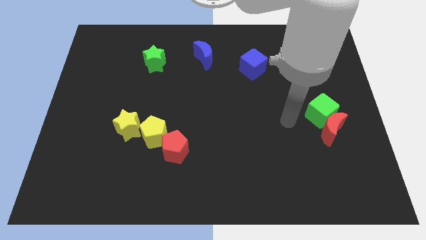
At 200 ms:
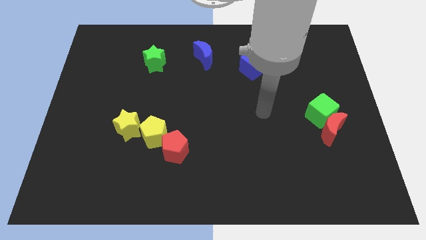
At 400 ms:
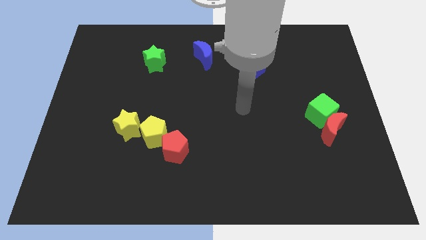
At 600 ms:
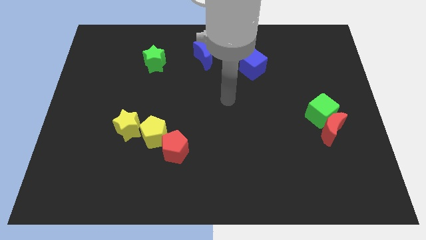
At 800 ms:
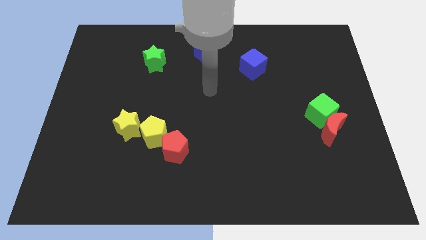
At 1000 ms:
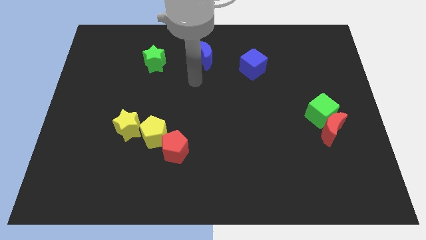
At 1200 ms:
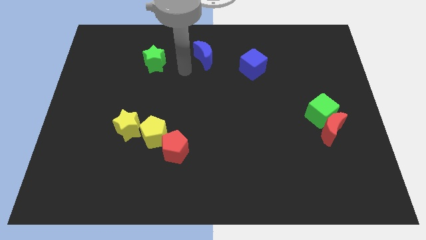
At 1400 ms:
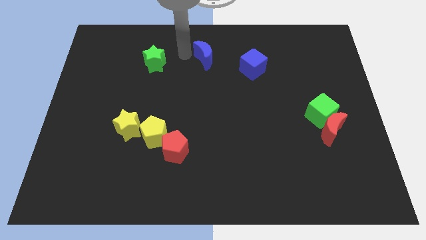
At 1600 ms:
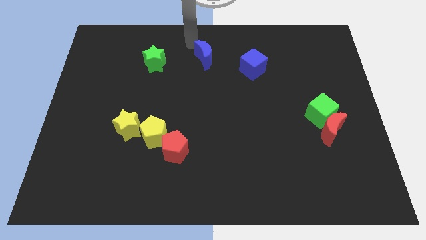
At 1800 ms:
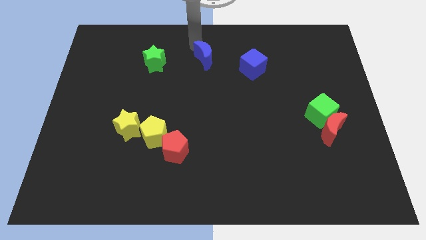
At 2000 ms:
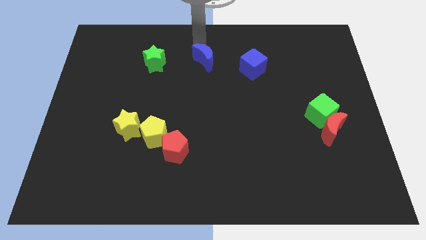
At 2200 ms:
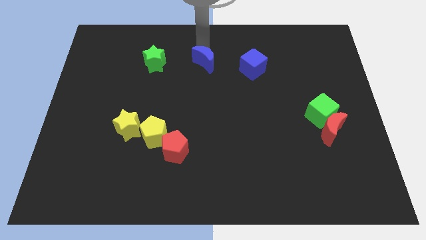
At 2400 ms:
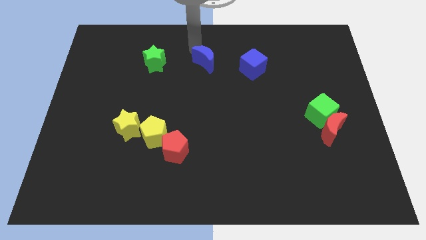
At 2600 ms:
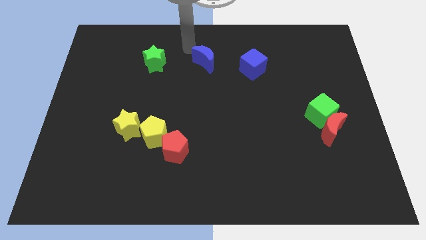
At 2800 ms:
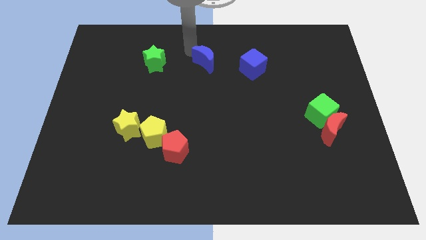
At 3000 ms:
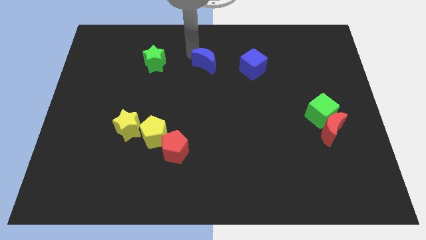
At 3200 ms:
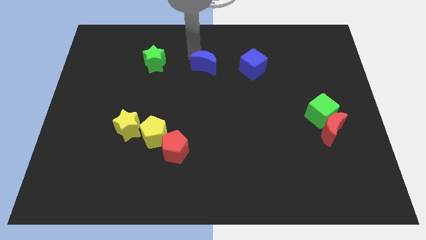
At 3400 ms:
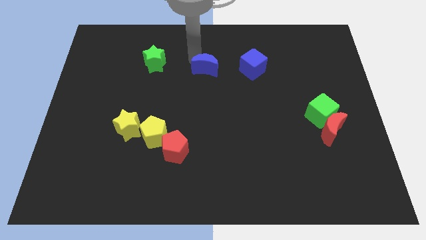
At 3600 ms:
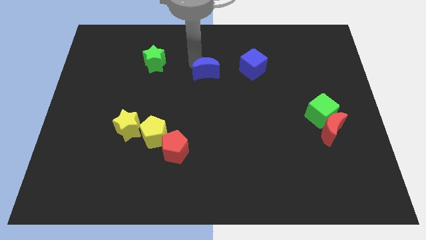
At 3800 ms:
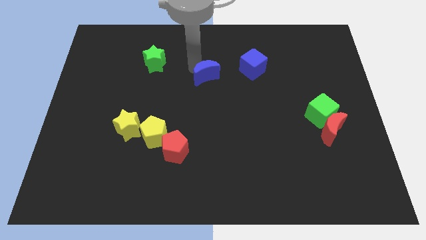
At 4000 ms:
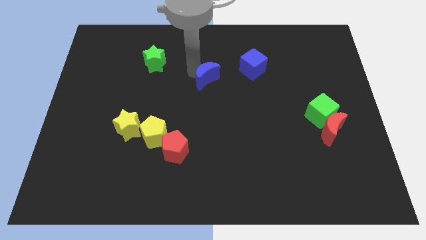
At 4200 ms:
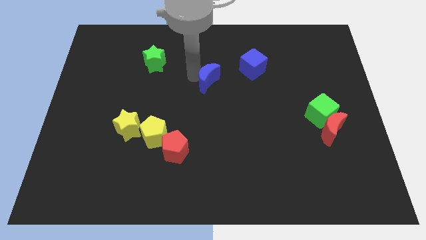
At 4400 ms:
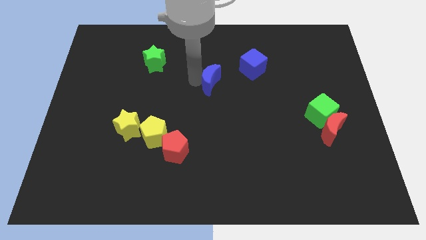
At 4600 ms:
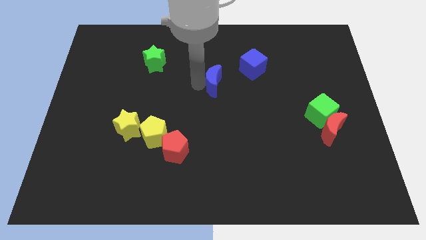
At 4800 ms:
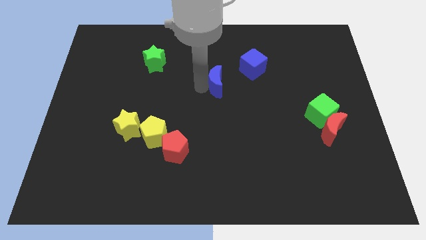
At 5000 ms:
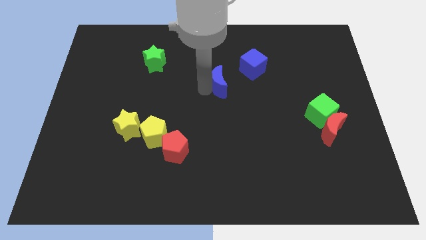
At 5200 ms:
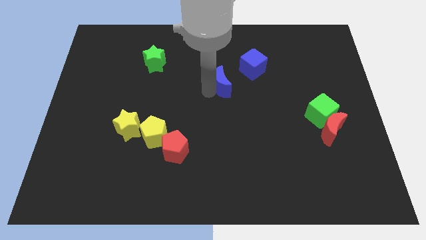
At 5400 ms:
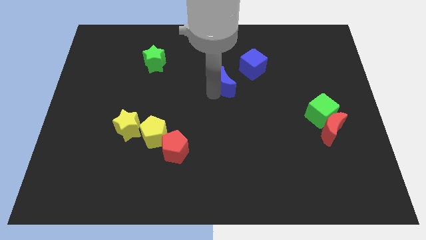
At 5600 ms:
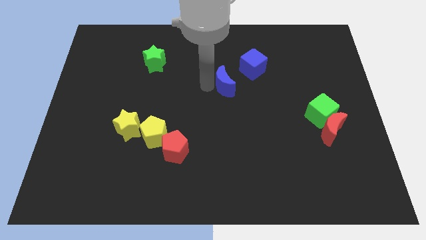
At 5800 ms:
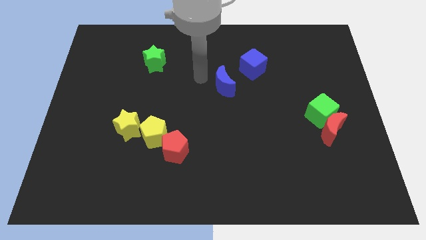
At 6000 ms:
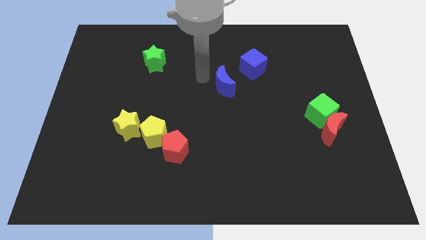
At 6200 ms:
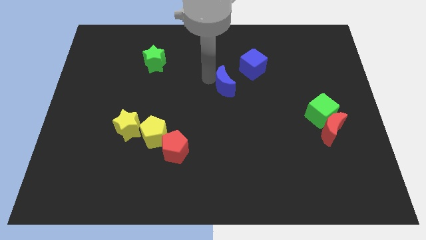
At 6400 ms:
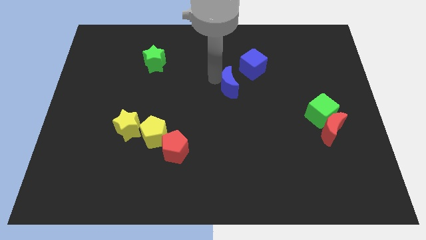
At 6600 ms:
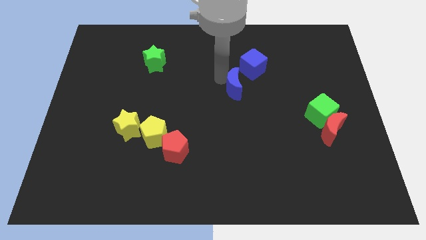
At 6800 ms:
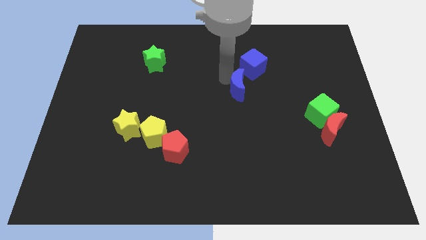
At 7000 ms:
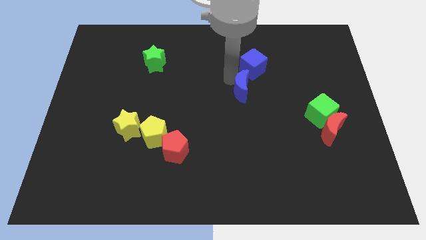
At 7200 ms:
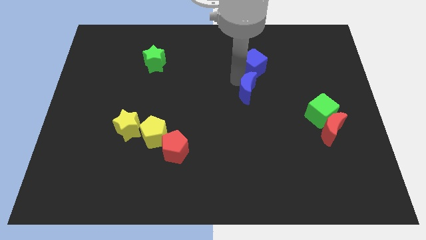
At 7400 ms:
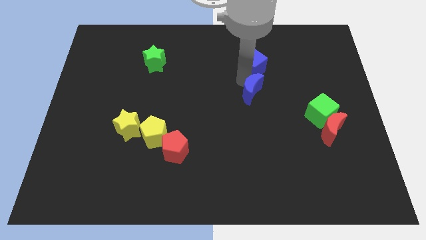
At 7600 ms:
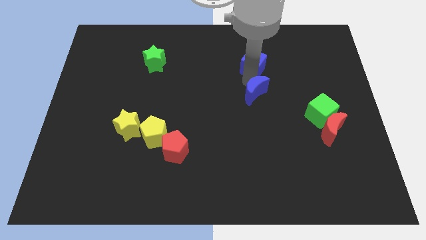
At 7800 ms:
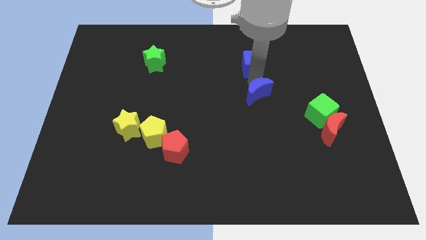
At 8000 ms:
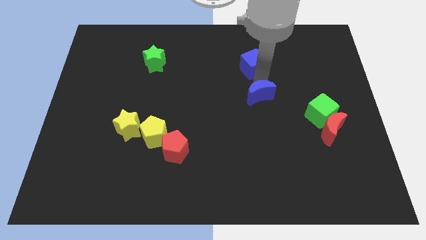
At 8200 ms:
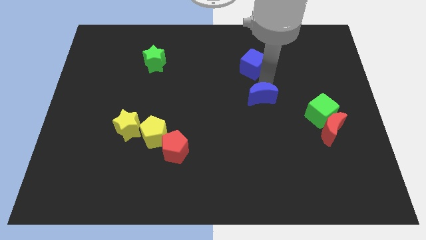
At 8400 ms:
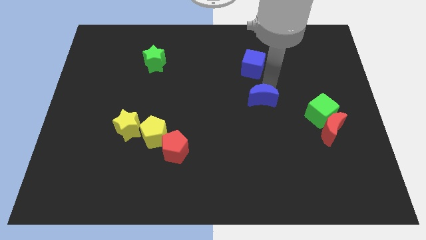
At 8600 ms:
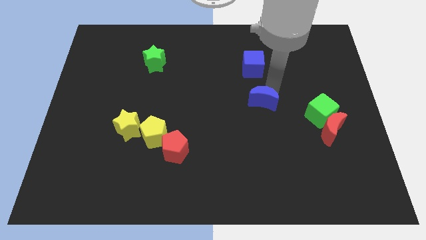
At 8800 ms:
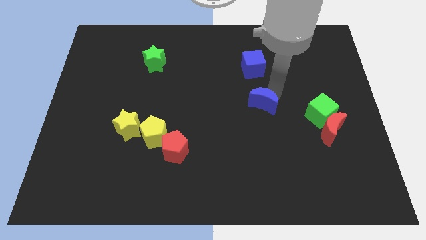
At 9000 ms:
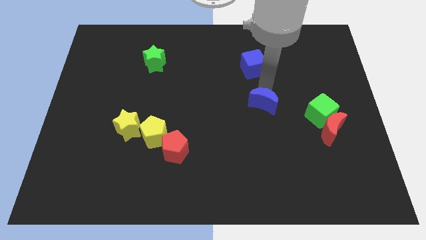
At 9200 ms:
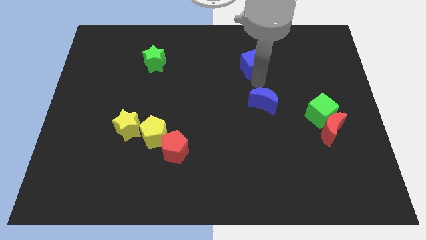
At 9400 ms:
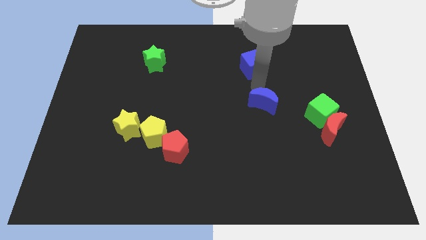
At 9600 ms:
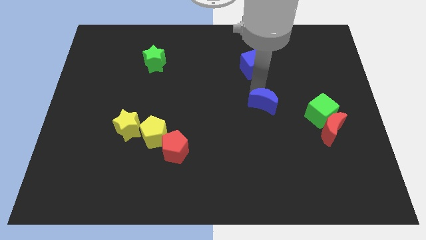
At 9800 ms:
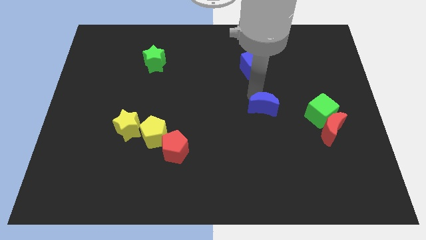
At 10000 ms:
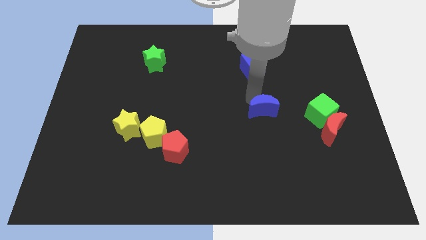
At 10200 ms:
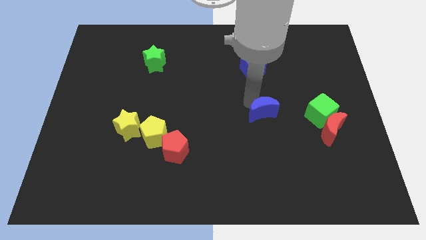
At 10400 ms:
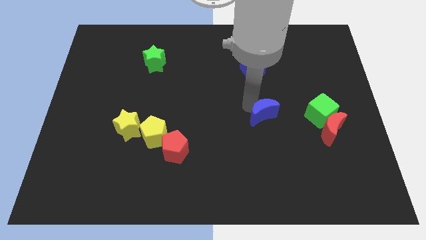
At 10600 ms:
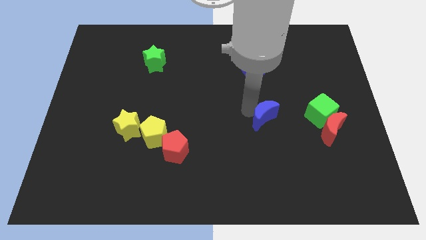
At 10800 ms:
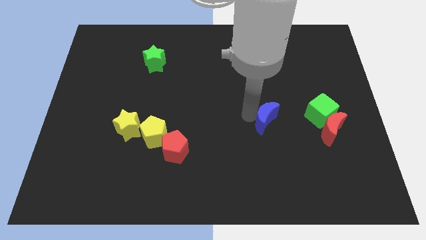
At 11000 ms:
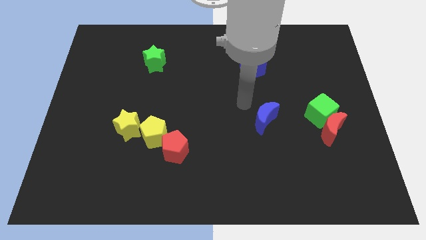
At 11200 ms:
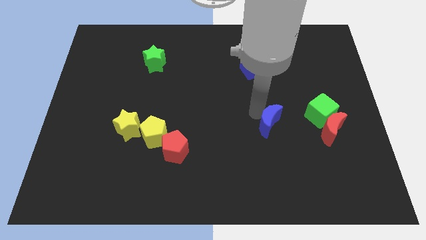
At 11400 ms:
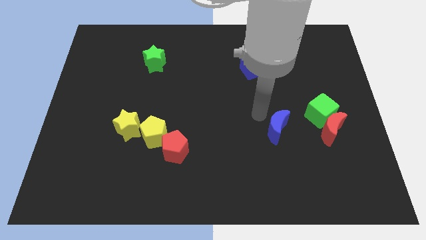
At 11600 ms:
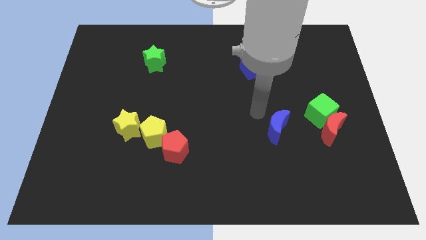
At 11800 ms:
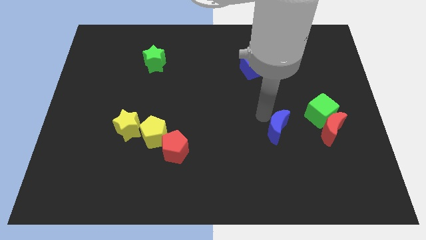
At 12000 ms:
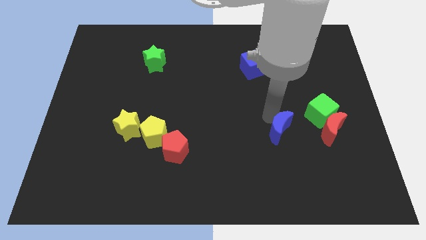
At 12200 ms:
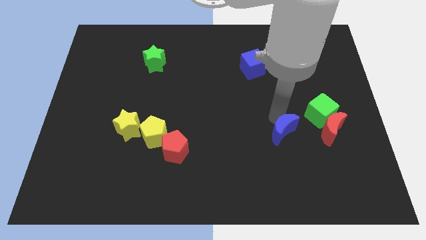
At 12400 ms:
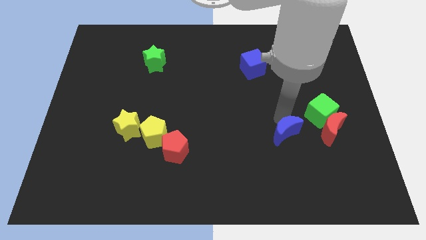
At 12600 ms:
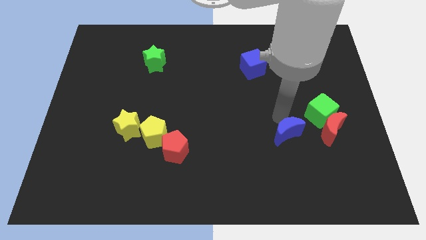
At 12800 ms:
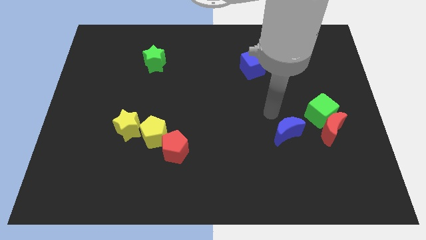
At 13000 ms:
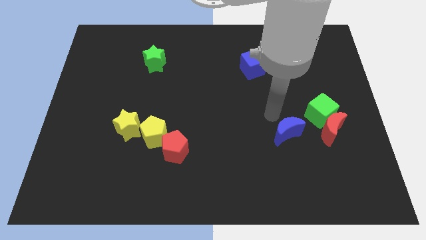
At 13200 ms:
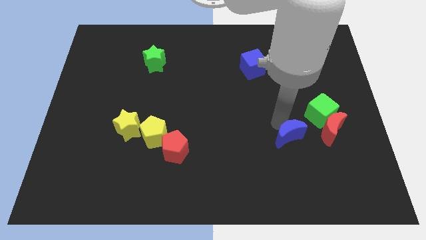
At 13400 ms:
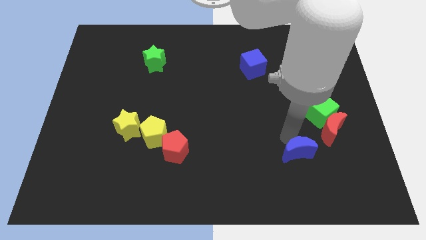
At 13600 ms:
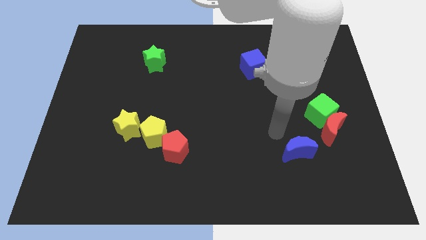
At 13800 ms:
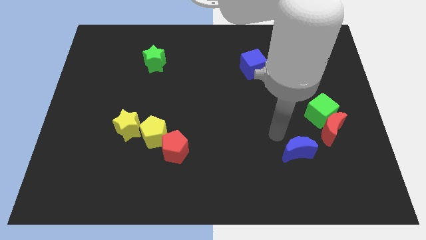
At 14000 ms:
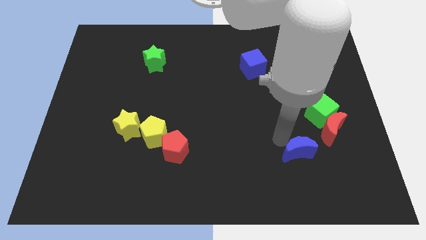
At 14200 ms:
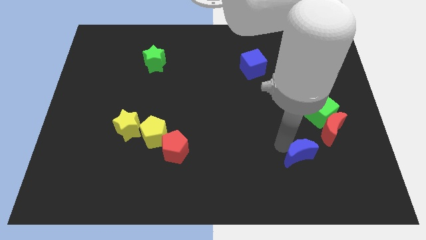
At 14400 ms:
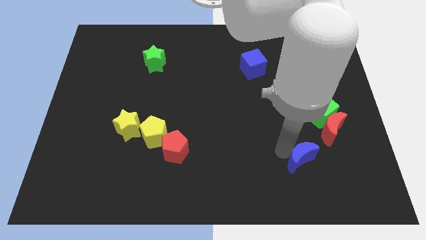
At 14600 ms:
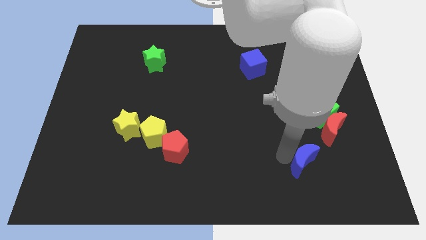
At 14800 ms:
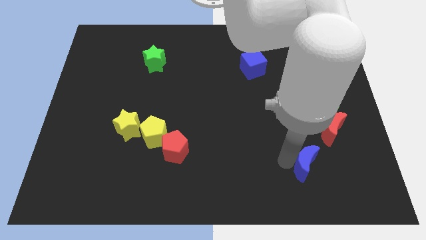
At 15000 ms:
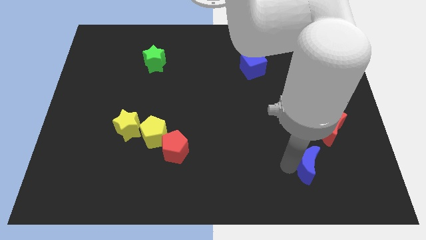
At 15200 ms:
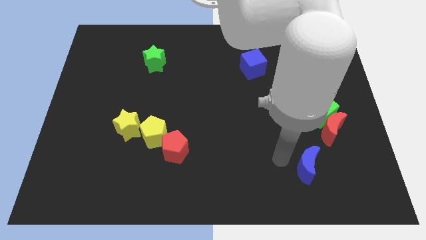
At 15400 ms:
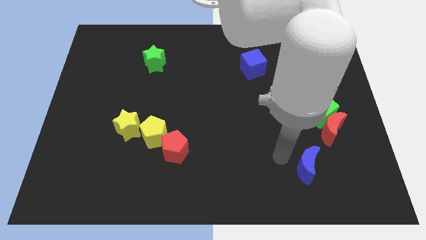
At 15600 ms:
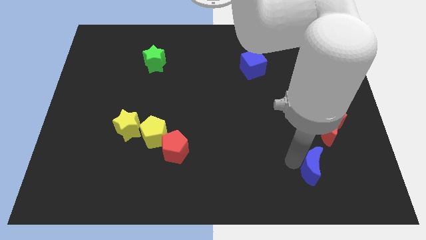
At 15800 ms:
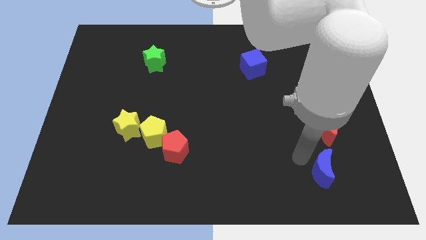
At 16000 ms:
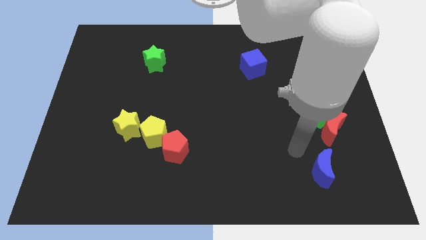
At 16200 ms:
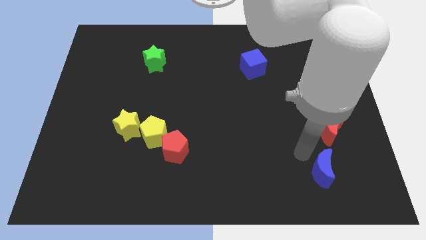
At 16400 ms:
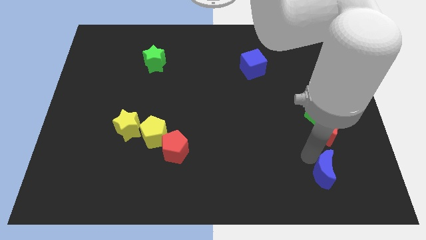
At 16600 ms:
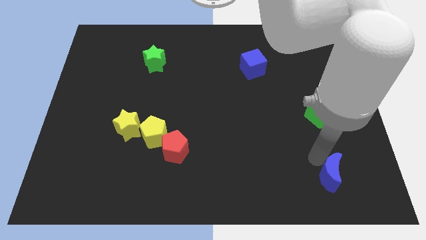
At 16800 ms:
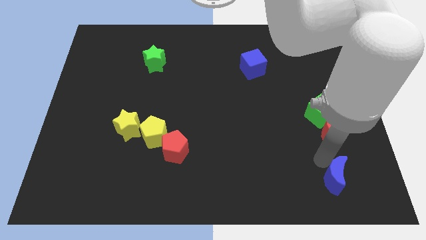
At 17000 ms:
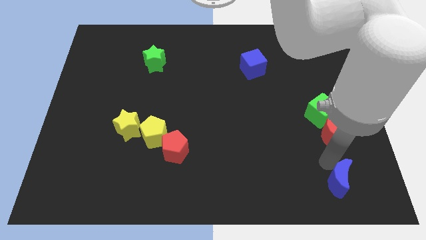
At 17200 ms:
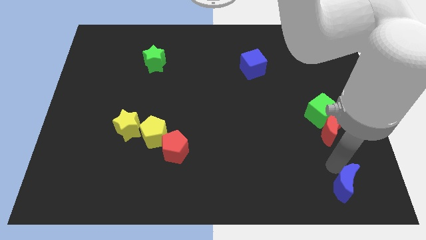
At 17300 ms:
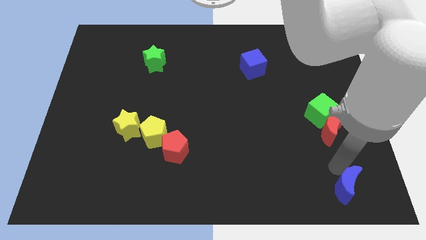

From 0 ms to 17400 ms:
put the blue moon to the lower right corner
